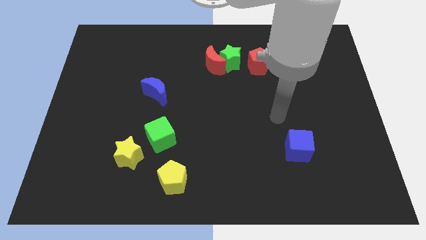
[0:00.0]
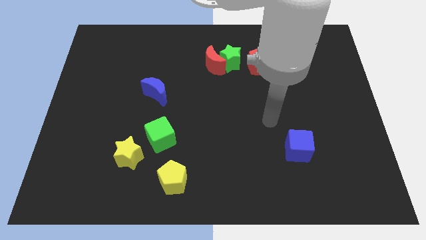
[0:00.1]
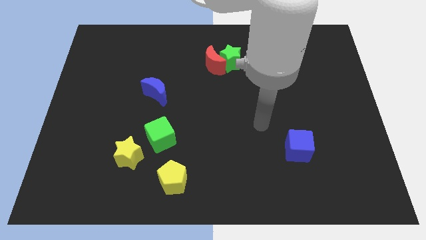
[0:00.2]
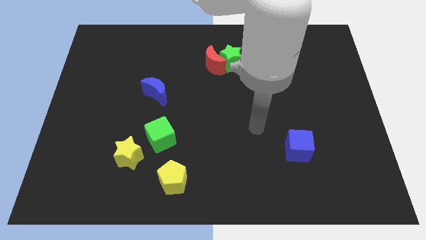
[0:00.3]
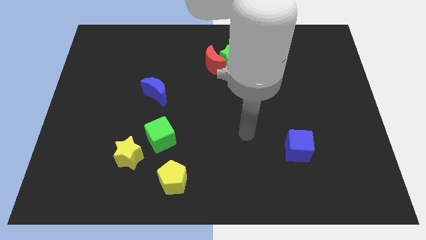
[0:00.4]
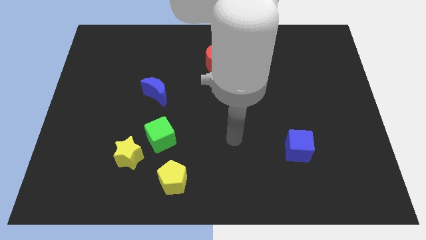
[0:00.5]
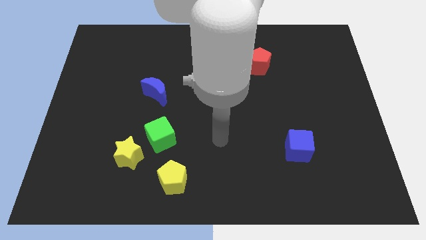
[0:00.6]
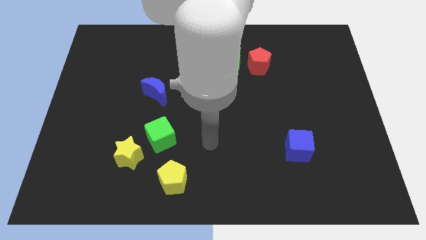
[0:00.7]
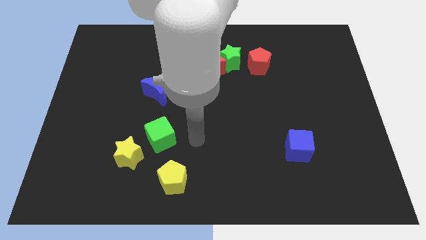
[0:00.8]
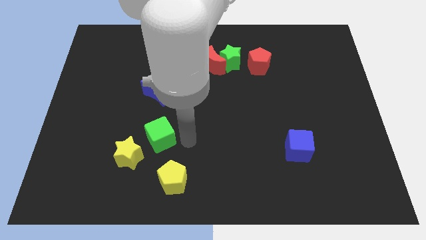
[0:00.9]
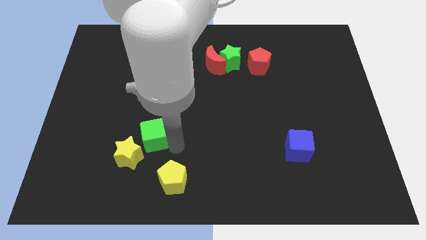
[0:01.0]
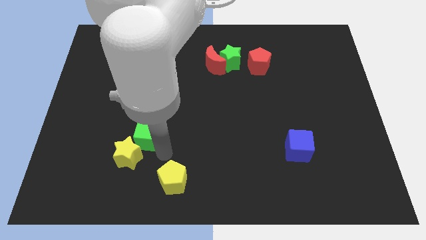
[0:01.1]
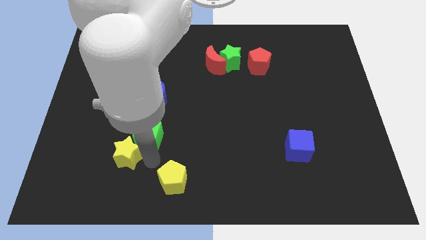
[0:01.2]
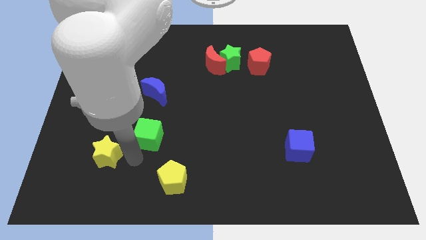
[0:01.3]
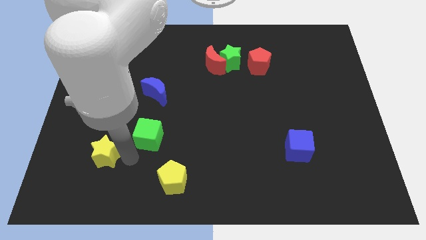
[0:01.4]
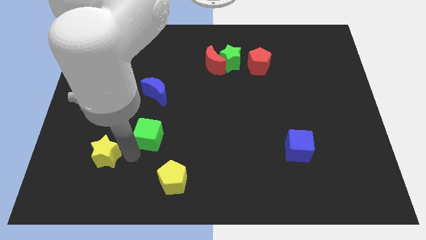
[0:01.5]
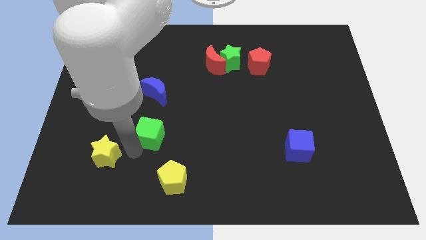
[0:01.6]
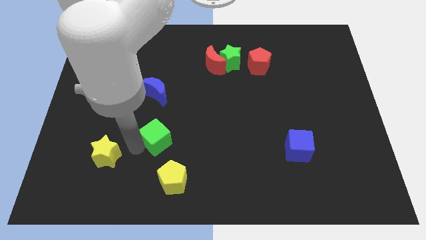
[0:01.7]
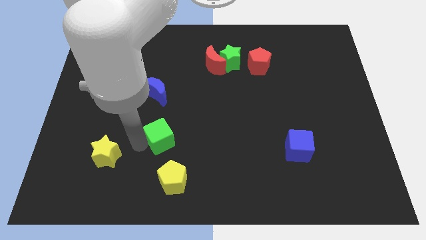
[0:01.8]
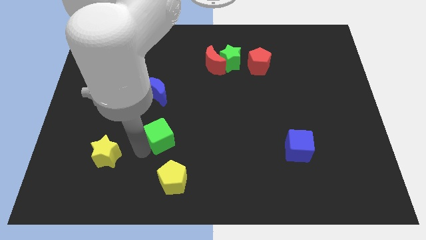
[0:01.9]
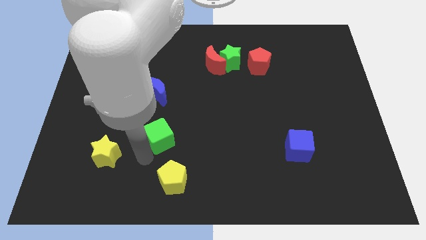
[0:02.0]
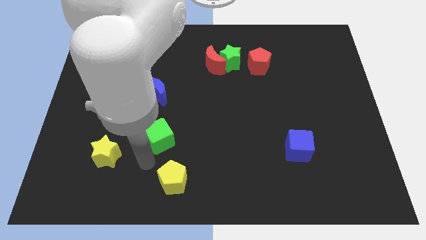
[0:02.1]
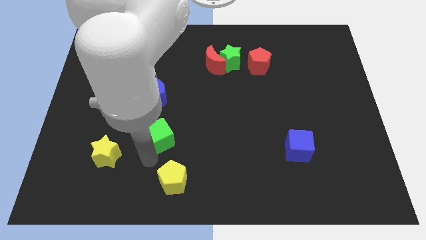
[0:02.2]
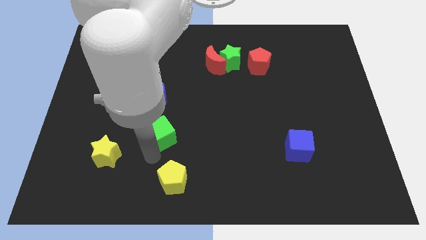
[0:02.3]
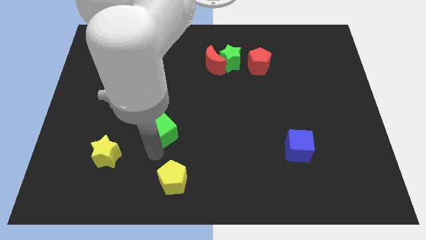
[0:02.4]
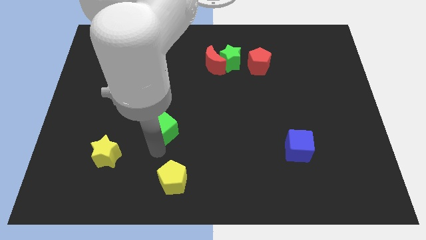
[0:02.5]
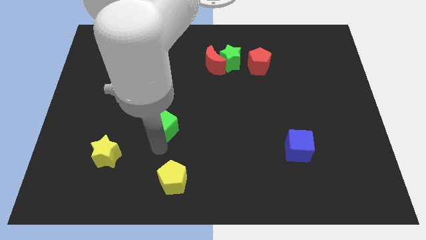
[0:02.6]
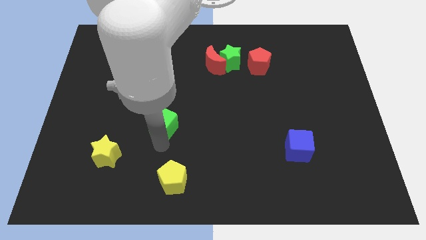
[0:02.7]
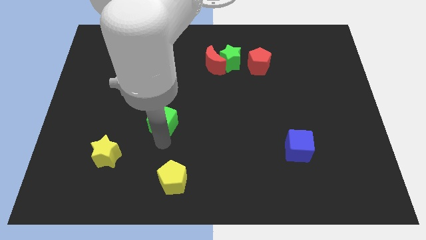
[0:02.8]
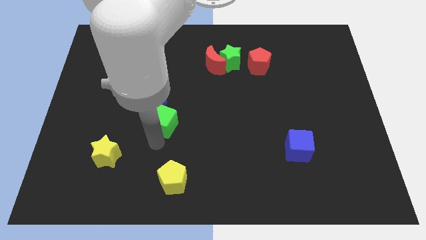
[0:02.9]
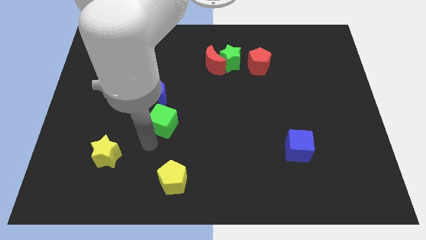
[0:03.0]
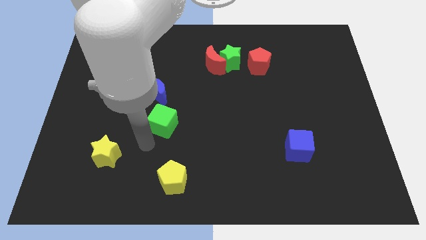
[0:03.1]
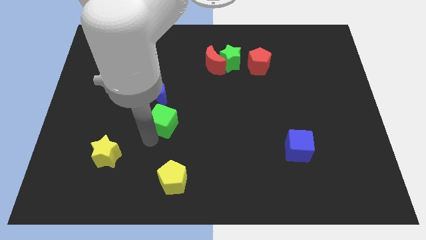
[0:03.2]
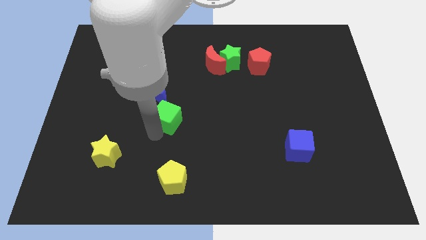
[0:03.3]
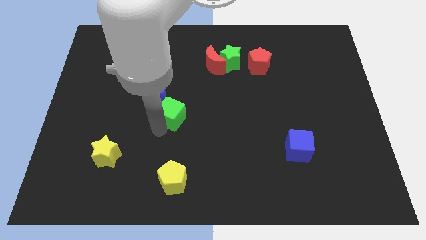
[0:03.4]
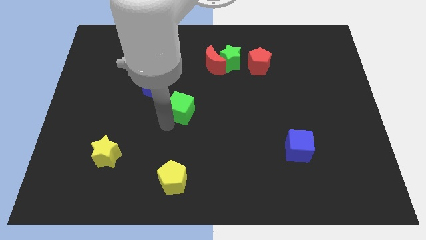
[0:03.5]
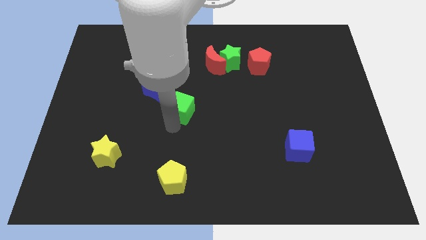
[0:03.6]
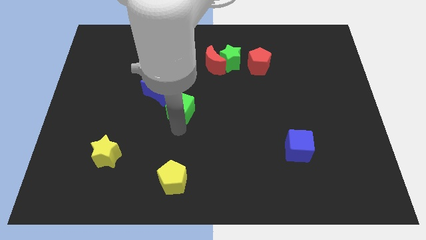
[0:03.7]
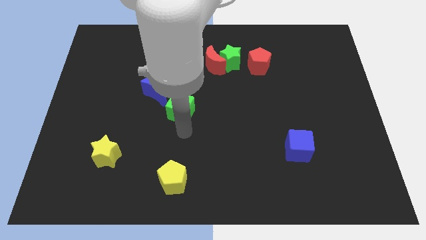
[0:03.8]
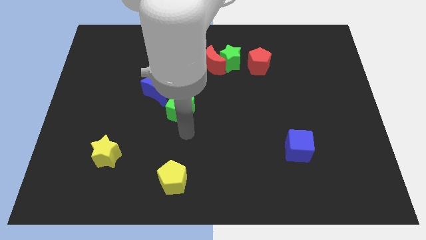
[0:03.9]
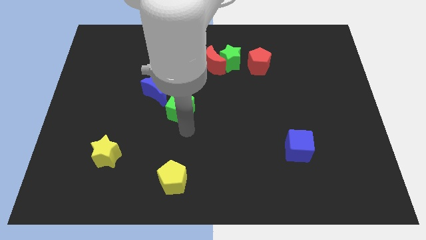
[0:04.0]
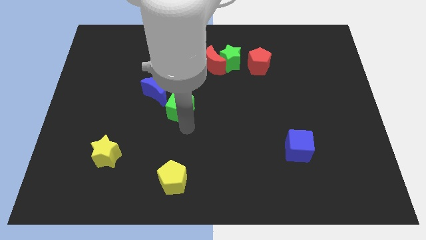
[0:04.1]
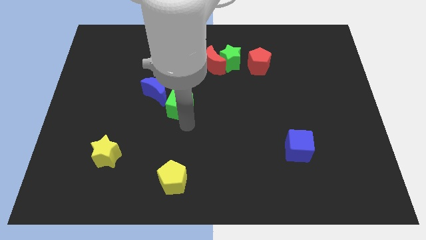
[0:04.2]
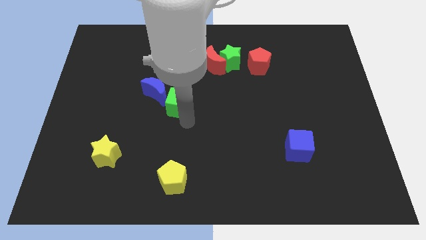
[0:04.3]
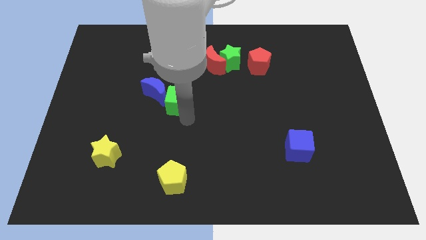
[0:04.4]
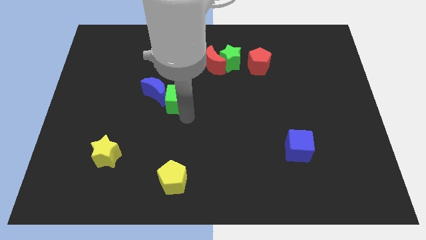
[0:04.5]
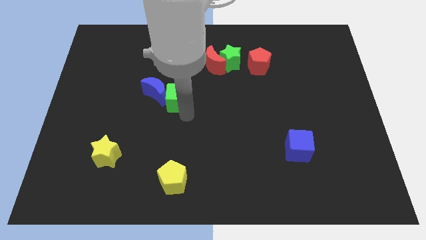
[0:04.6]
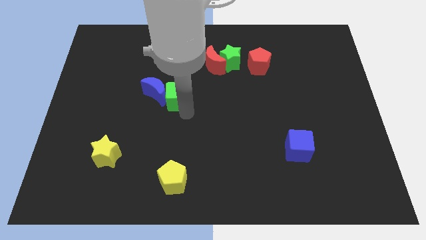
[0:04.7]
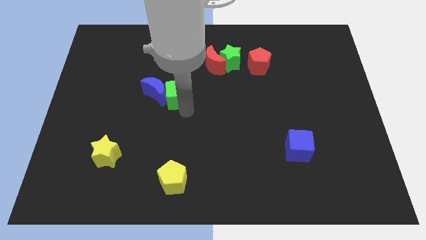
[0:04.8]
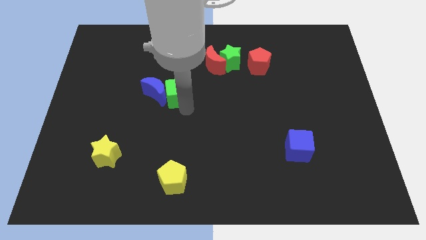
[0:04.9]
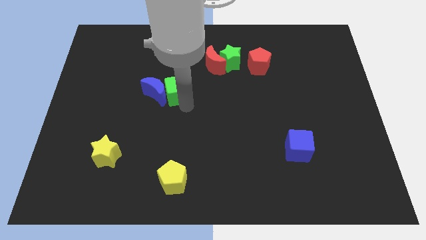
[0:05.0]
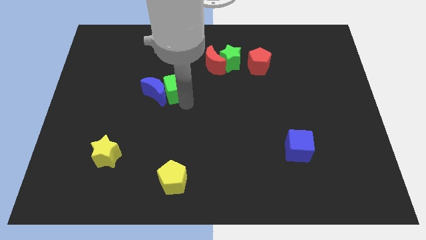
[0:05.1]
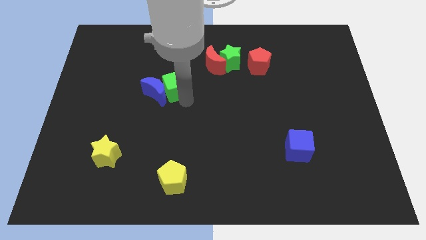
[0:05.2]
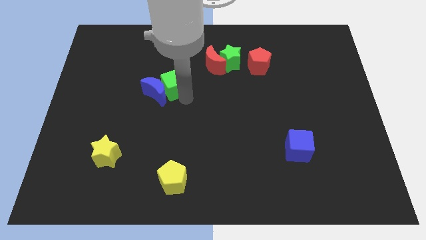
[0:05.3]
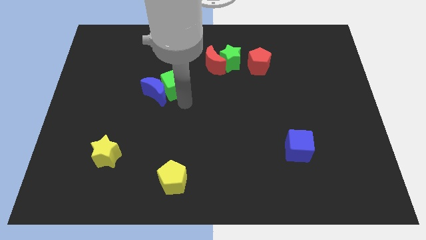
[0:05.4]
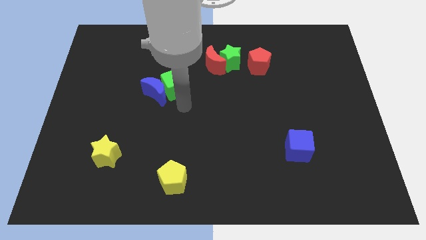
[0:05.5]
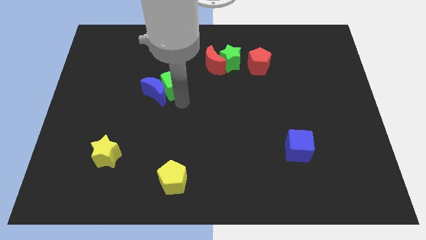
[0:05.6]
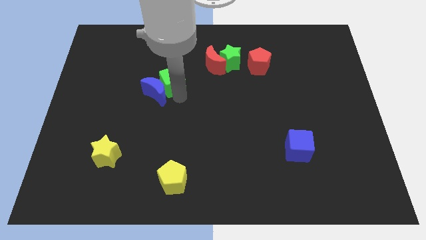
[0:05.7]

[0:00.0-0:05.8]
push the green cube to the top of the blue moon

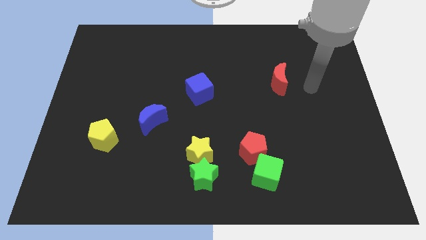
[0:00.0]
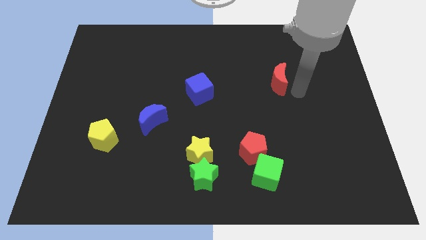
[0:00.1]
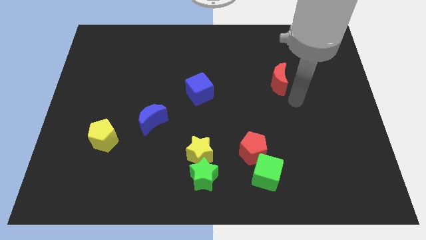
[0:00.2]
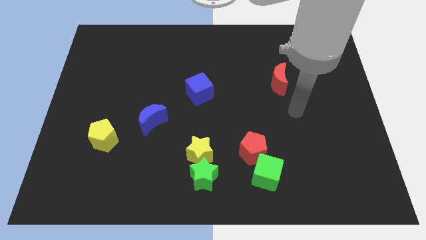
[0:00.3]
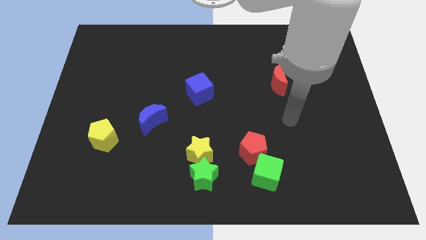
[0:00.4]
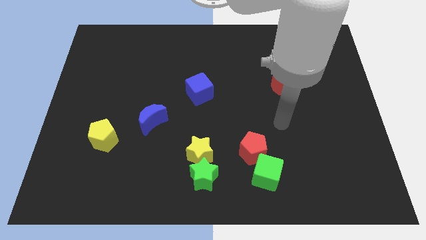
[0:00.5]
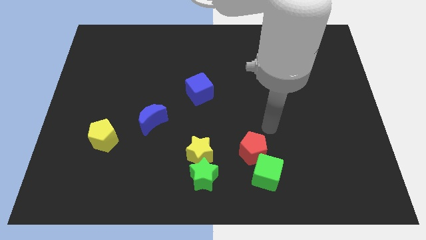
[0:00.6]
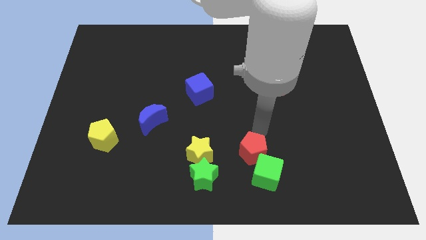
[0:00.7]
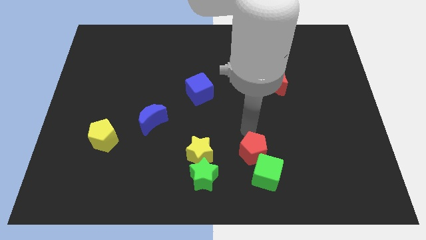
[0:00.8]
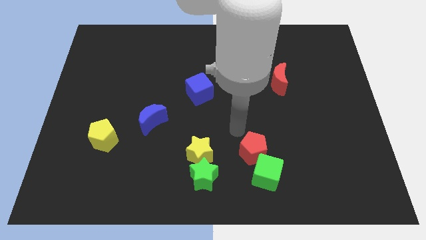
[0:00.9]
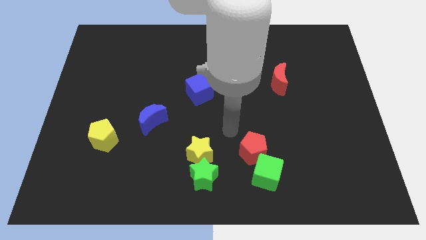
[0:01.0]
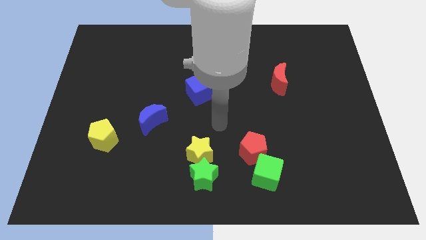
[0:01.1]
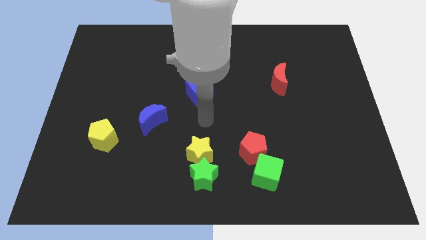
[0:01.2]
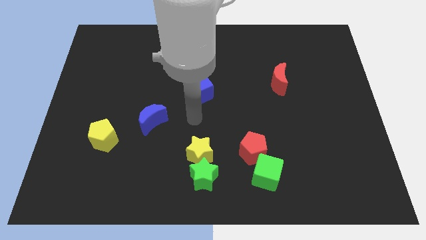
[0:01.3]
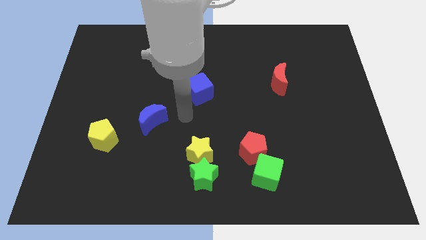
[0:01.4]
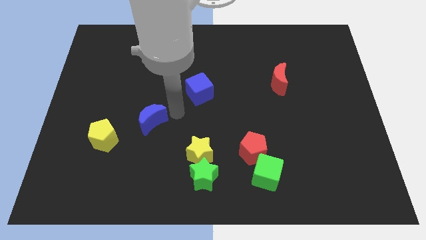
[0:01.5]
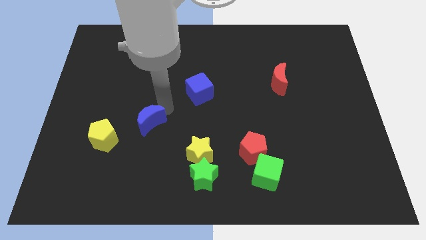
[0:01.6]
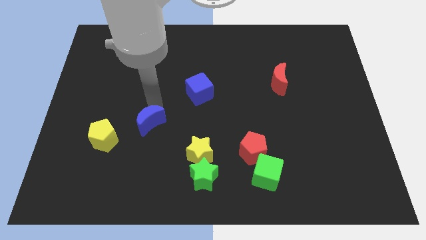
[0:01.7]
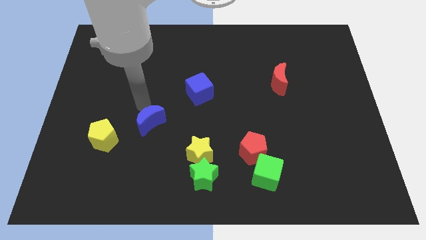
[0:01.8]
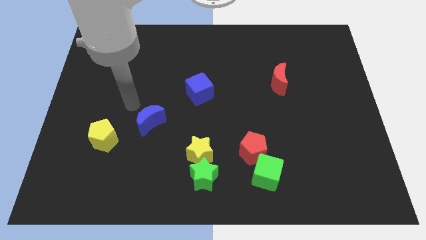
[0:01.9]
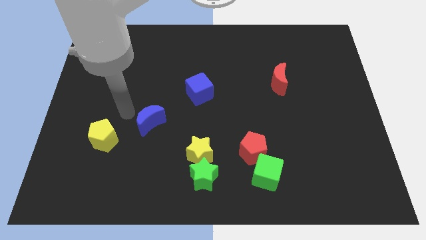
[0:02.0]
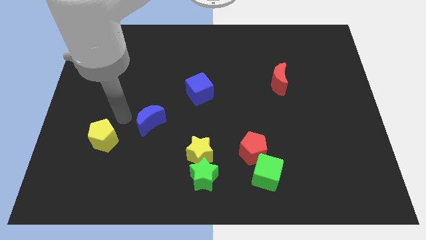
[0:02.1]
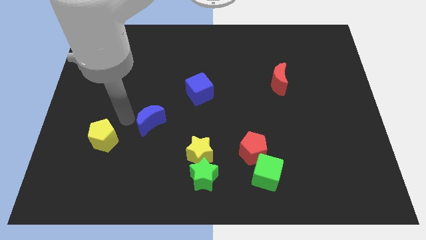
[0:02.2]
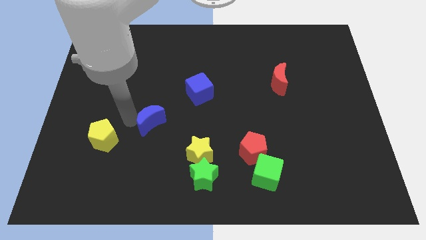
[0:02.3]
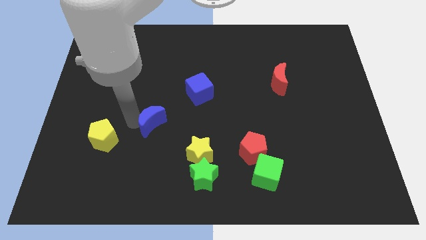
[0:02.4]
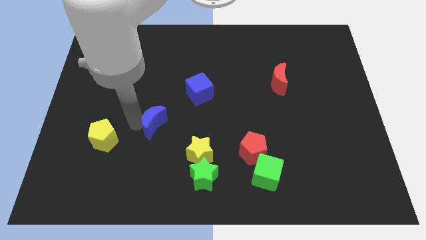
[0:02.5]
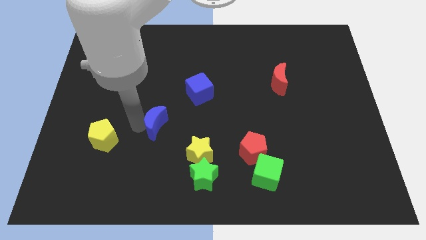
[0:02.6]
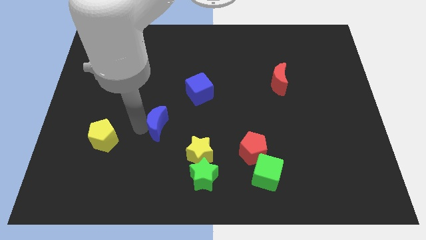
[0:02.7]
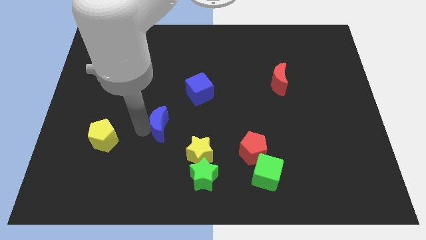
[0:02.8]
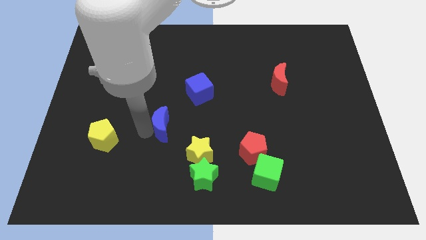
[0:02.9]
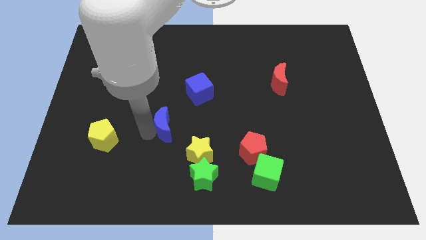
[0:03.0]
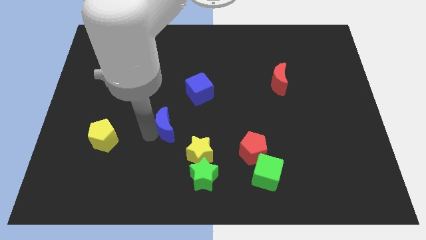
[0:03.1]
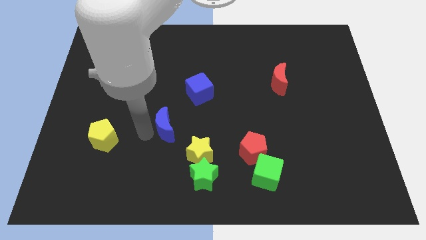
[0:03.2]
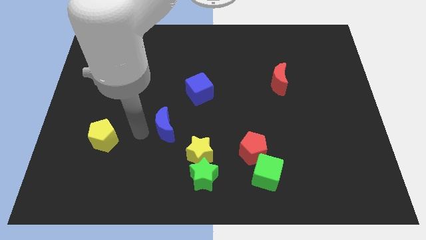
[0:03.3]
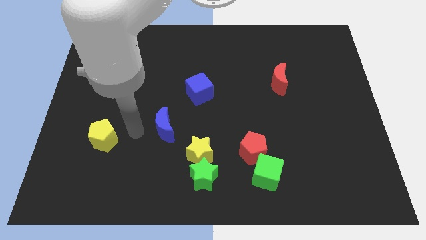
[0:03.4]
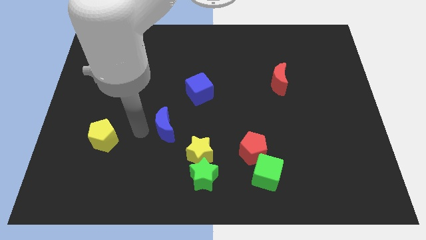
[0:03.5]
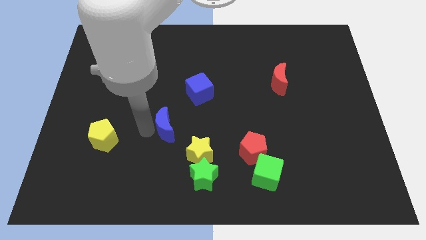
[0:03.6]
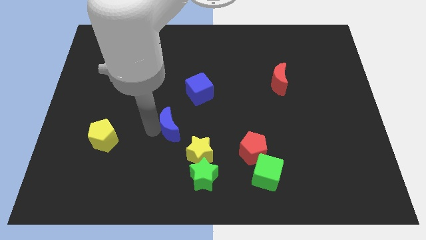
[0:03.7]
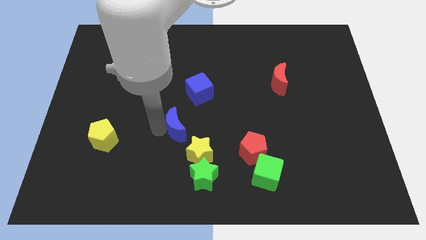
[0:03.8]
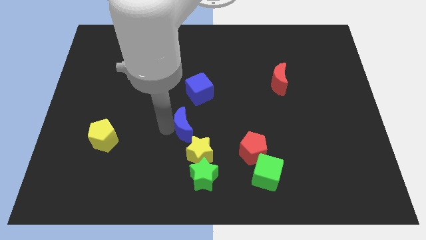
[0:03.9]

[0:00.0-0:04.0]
move the blue moon to the top side of the green star
